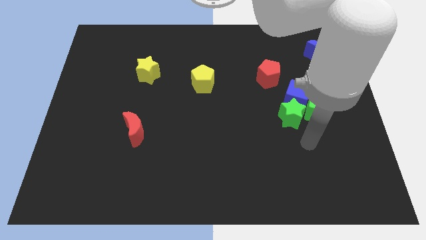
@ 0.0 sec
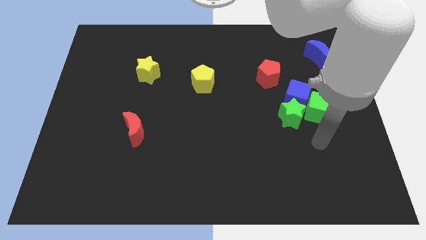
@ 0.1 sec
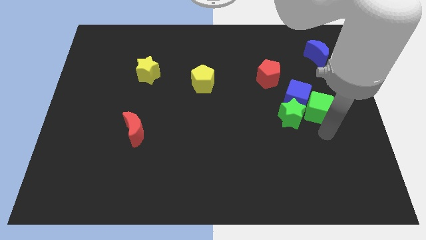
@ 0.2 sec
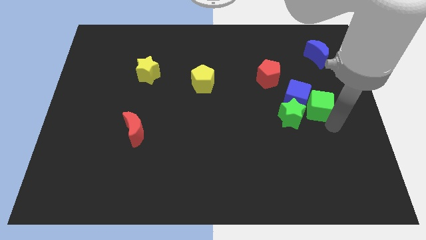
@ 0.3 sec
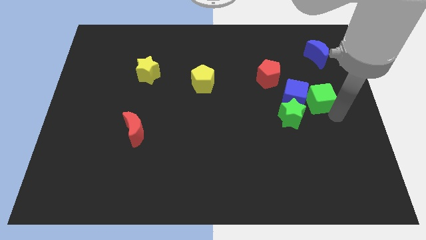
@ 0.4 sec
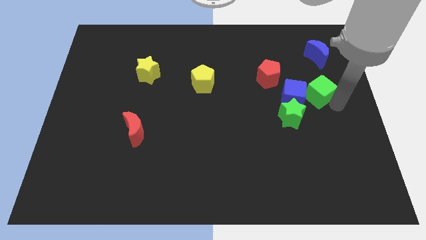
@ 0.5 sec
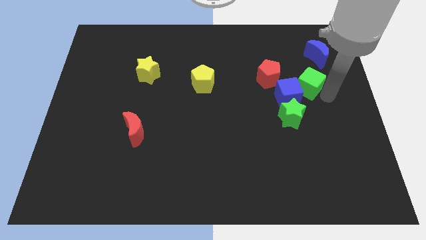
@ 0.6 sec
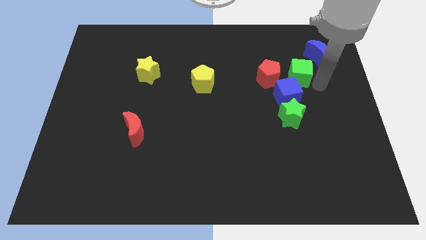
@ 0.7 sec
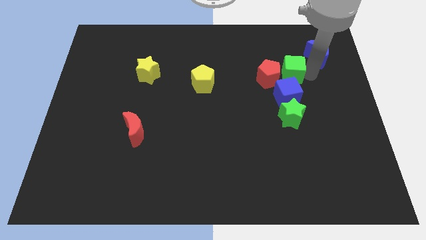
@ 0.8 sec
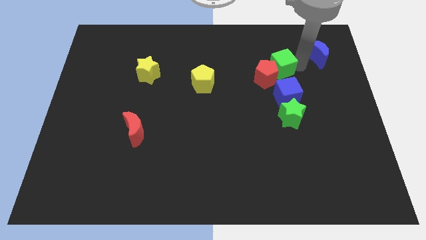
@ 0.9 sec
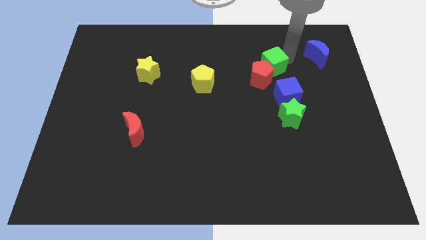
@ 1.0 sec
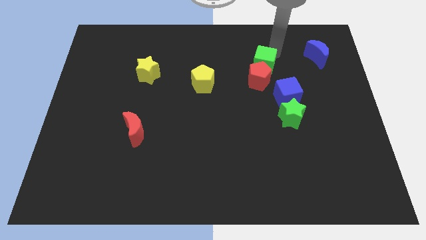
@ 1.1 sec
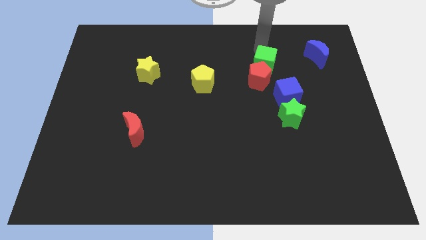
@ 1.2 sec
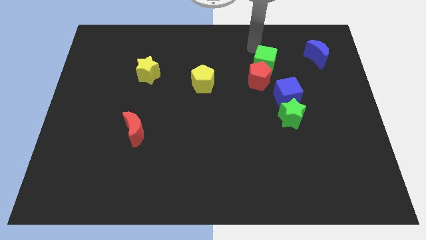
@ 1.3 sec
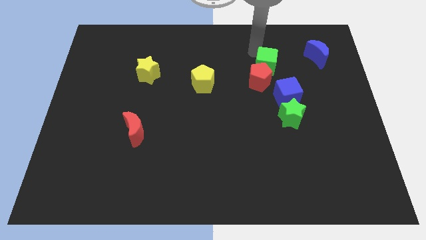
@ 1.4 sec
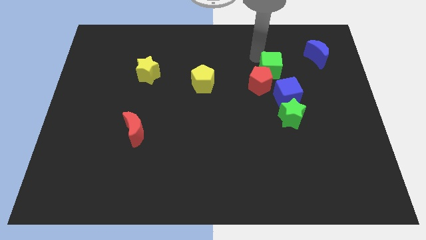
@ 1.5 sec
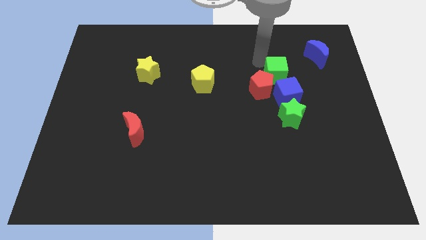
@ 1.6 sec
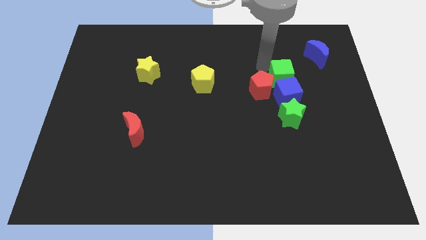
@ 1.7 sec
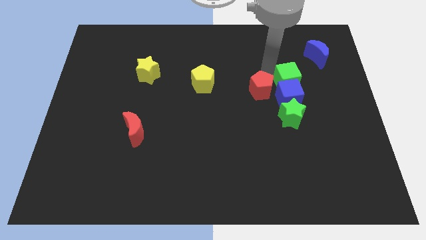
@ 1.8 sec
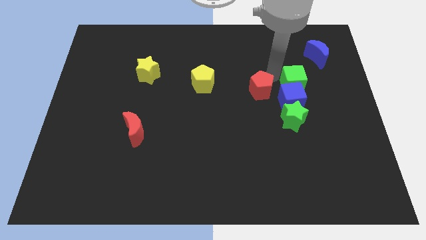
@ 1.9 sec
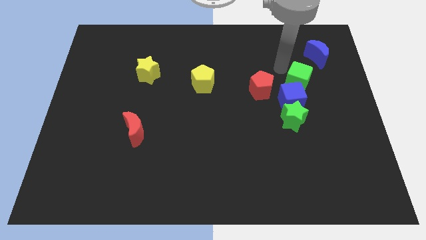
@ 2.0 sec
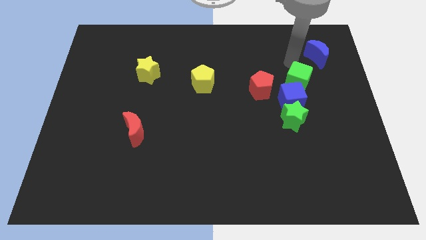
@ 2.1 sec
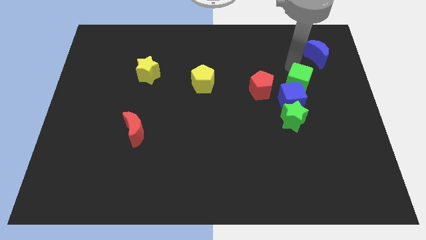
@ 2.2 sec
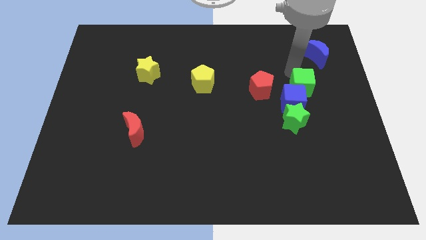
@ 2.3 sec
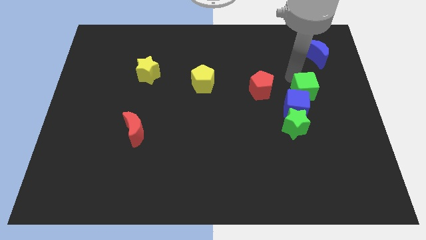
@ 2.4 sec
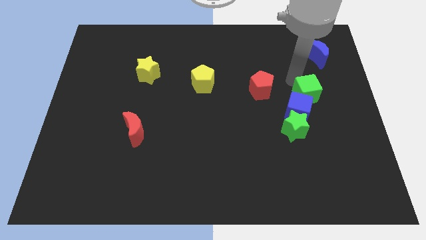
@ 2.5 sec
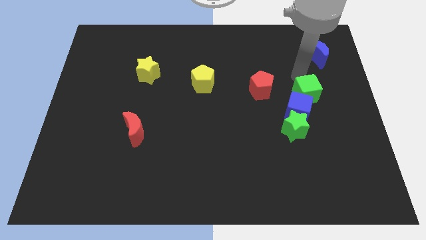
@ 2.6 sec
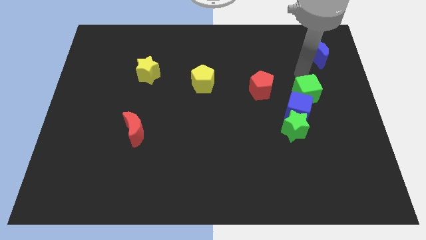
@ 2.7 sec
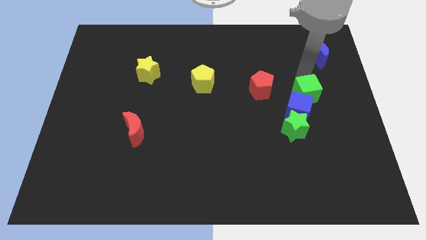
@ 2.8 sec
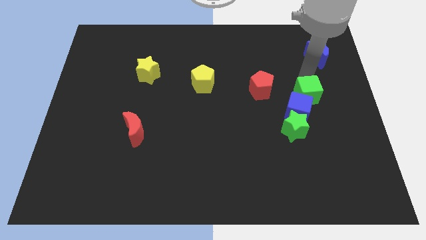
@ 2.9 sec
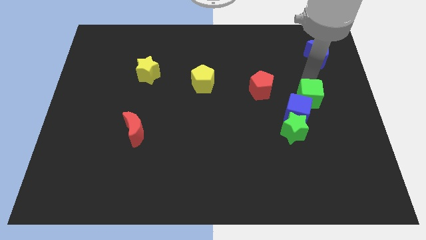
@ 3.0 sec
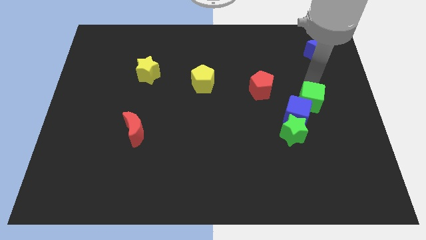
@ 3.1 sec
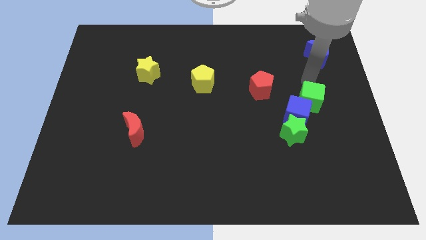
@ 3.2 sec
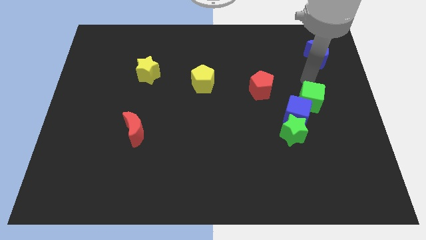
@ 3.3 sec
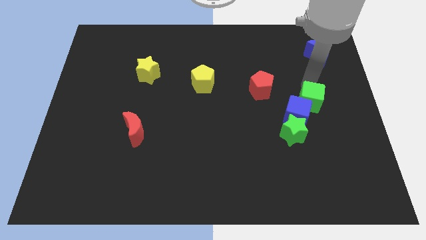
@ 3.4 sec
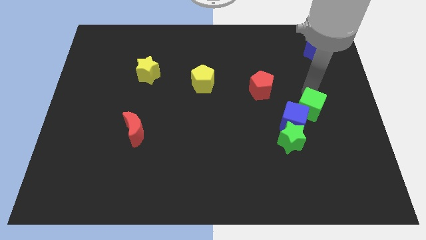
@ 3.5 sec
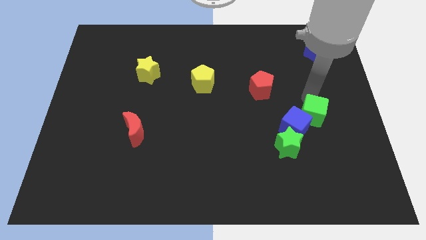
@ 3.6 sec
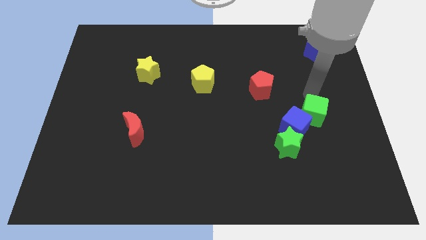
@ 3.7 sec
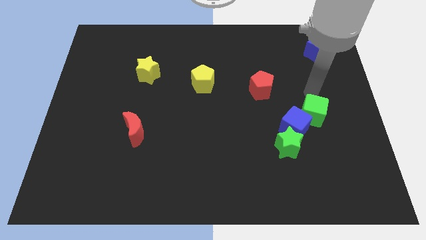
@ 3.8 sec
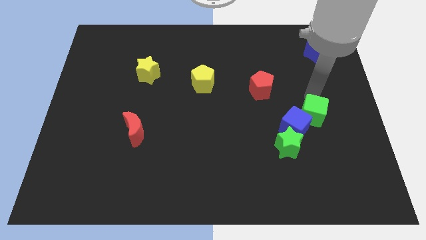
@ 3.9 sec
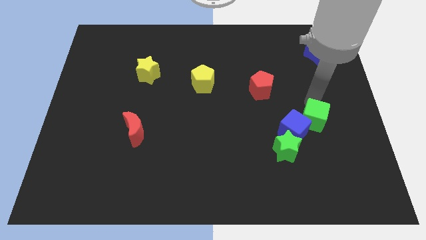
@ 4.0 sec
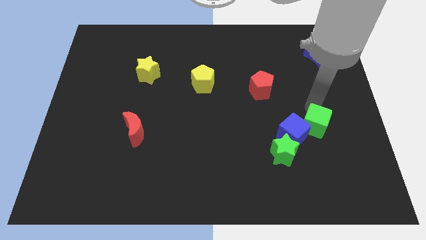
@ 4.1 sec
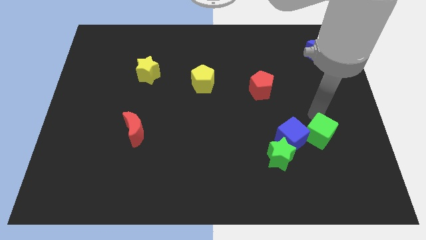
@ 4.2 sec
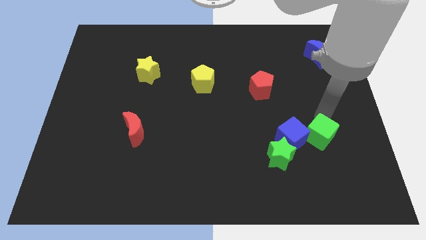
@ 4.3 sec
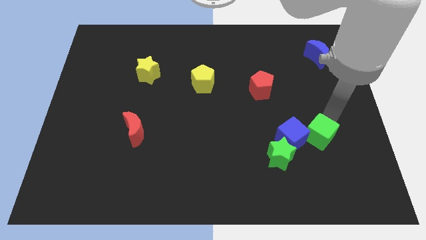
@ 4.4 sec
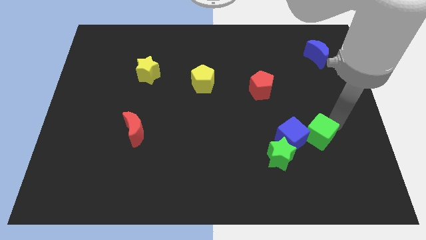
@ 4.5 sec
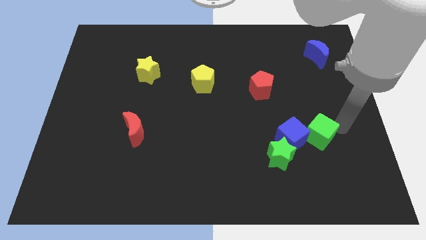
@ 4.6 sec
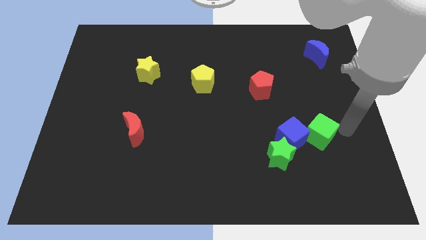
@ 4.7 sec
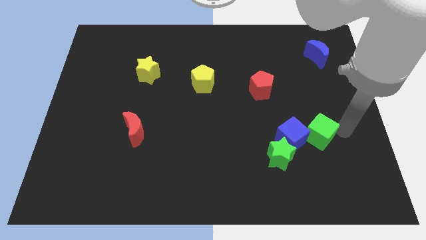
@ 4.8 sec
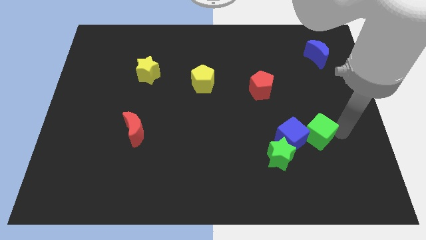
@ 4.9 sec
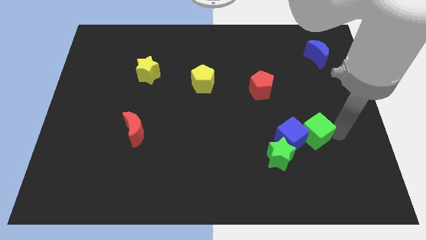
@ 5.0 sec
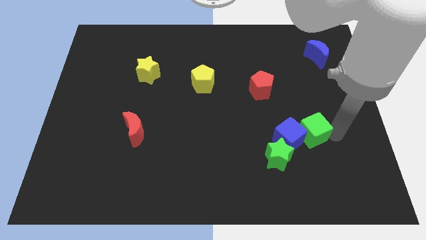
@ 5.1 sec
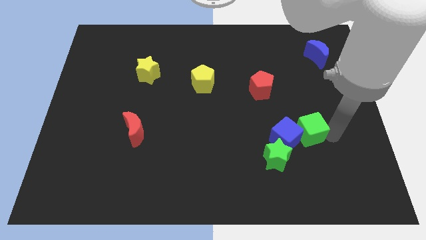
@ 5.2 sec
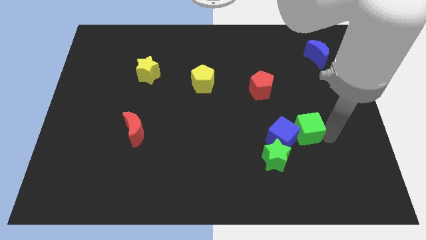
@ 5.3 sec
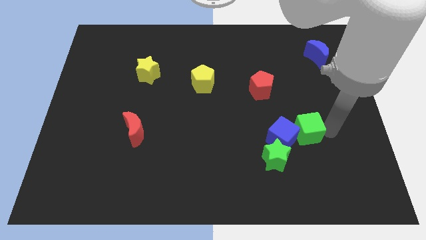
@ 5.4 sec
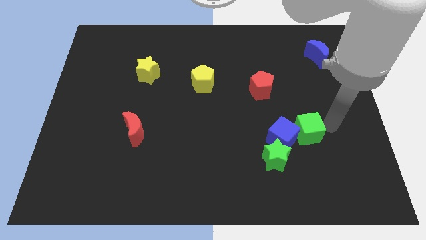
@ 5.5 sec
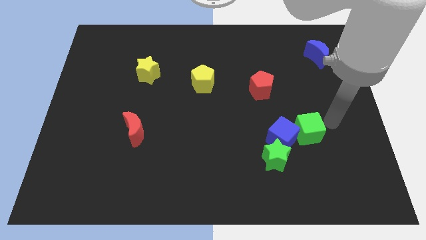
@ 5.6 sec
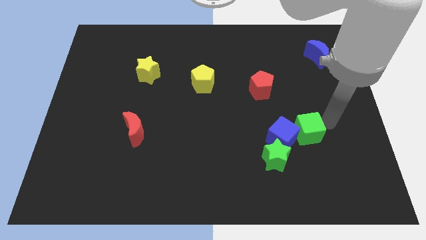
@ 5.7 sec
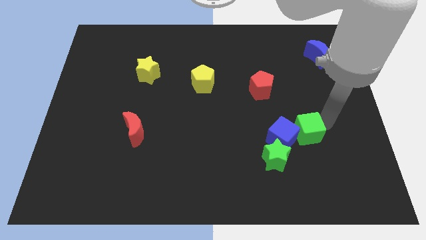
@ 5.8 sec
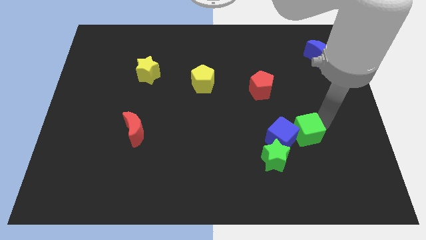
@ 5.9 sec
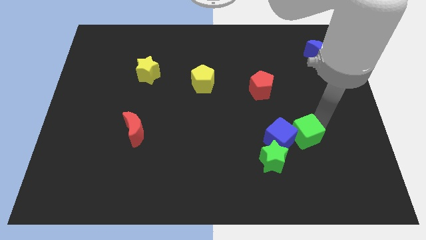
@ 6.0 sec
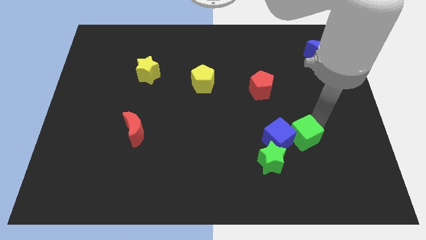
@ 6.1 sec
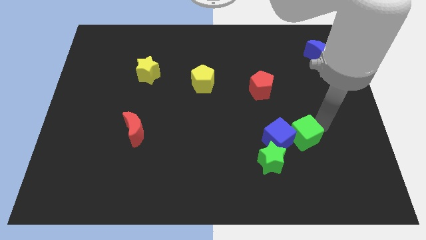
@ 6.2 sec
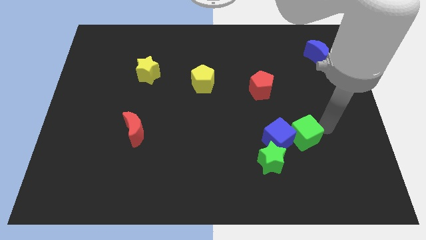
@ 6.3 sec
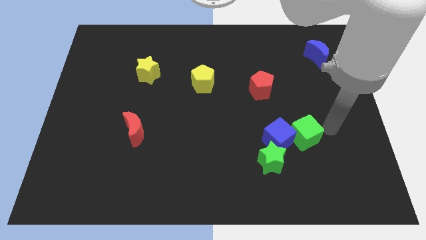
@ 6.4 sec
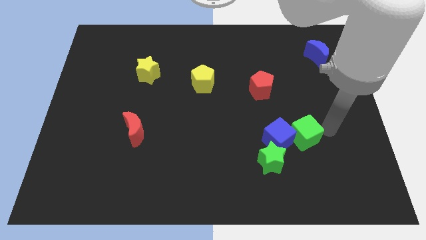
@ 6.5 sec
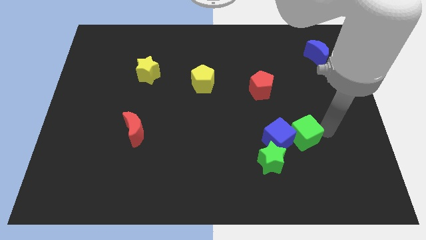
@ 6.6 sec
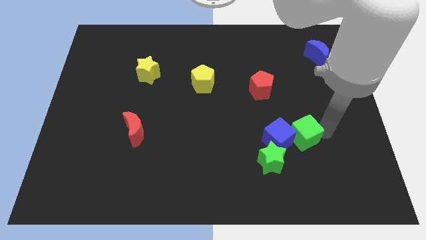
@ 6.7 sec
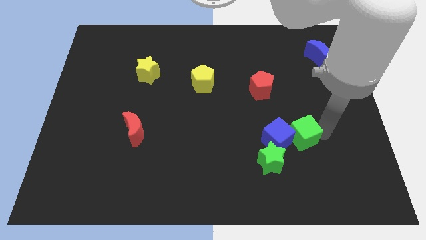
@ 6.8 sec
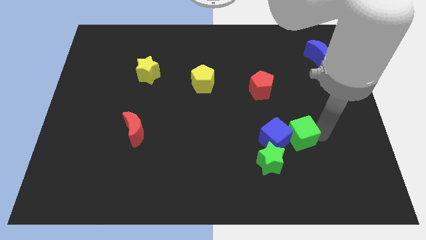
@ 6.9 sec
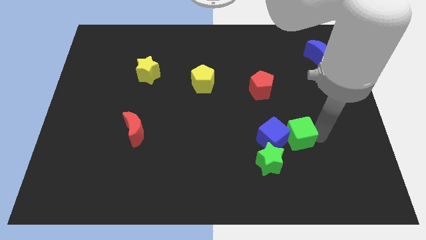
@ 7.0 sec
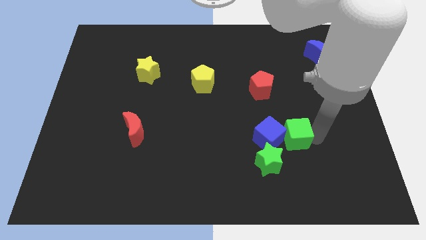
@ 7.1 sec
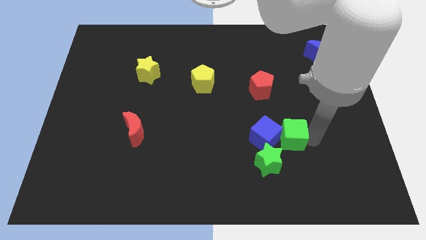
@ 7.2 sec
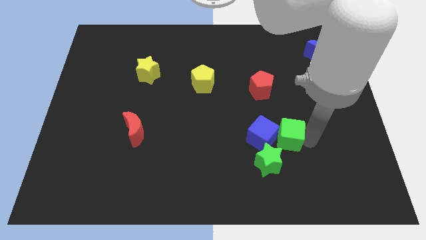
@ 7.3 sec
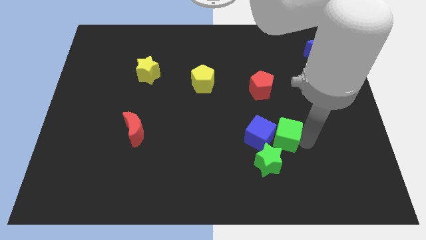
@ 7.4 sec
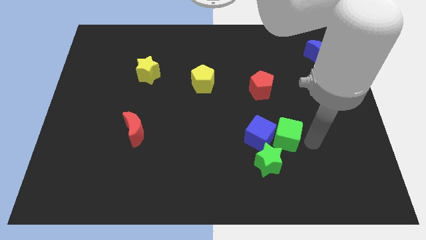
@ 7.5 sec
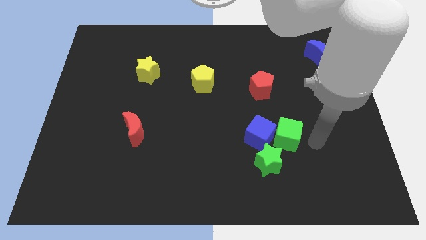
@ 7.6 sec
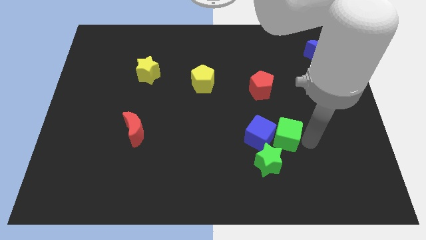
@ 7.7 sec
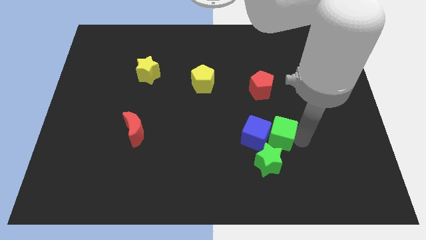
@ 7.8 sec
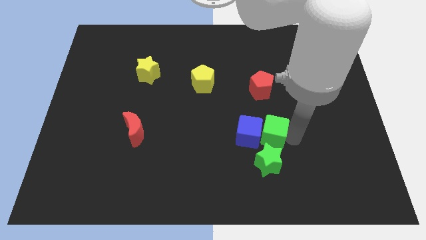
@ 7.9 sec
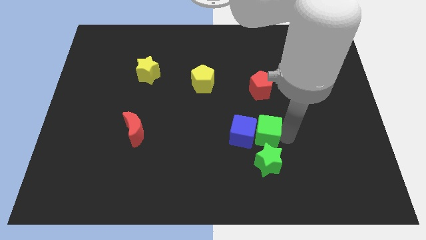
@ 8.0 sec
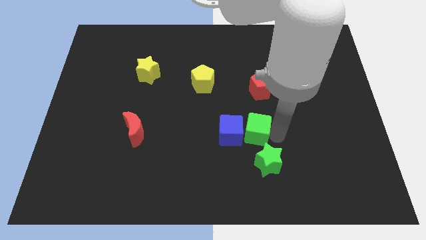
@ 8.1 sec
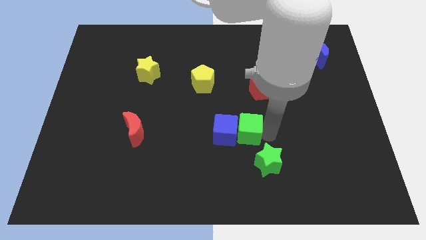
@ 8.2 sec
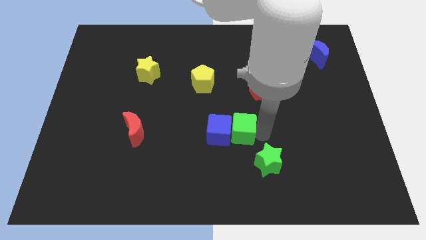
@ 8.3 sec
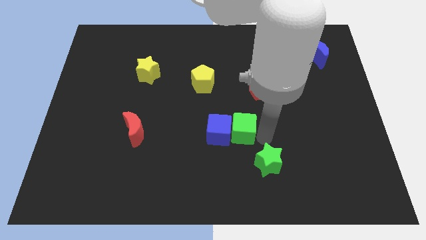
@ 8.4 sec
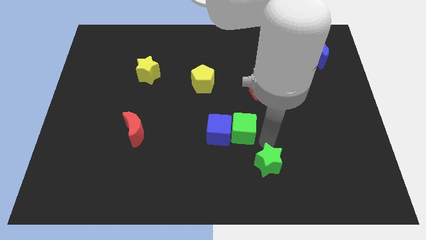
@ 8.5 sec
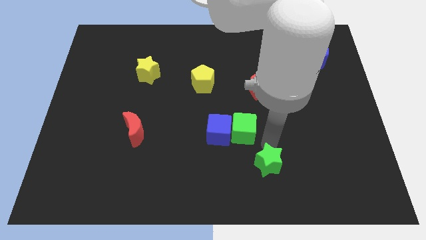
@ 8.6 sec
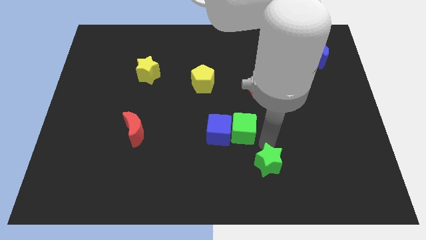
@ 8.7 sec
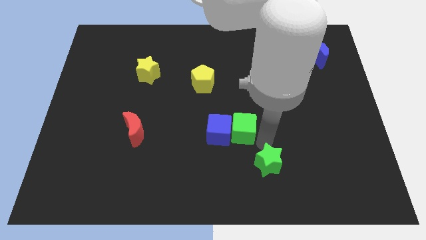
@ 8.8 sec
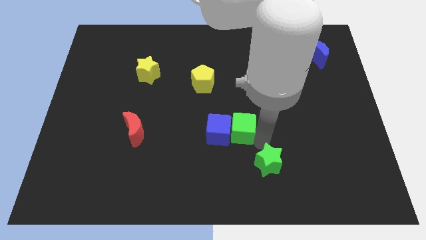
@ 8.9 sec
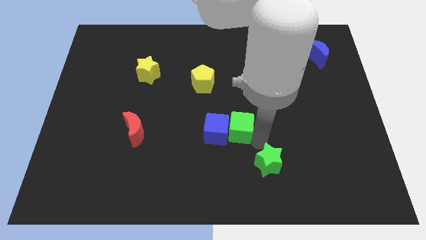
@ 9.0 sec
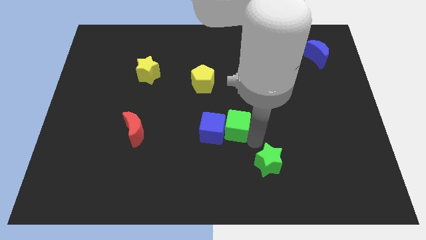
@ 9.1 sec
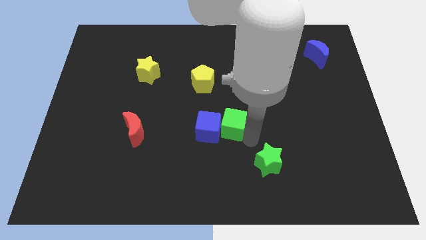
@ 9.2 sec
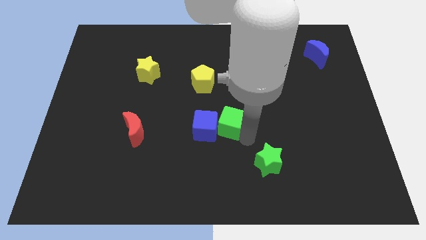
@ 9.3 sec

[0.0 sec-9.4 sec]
slide the green cube to the left
